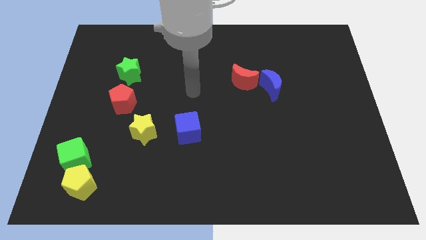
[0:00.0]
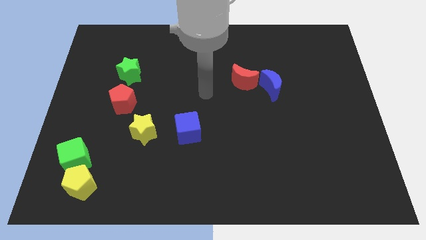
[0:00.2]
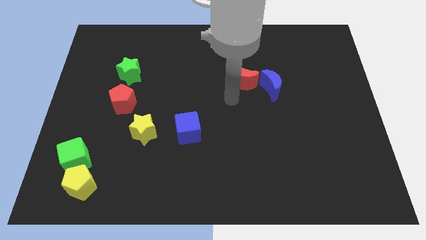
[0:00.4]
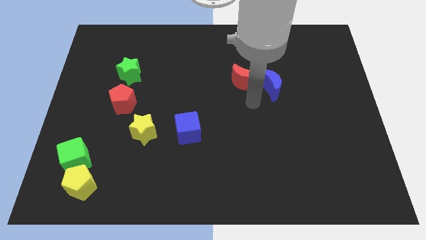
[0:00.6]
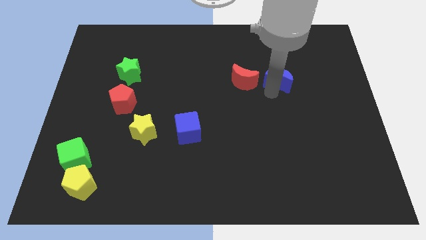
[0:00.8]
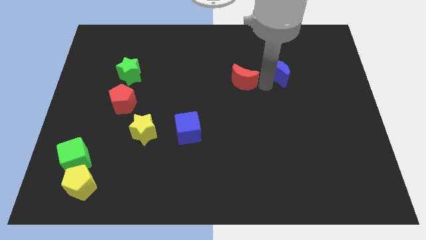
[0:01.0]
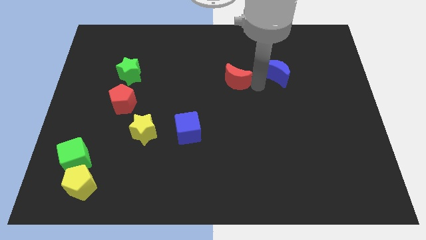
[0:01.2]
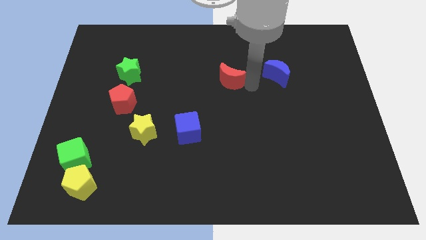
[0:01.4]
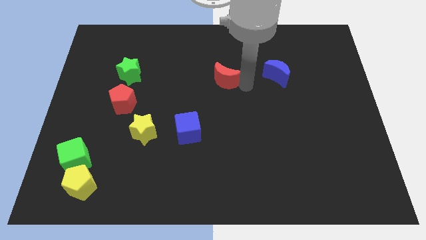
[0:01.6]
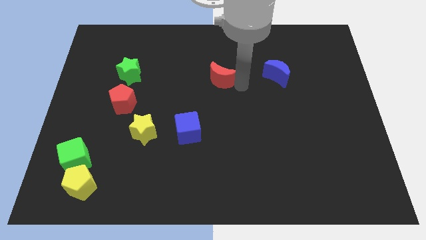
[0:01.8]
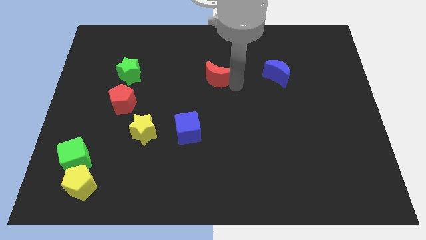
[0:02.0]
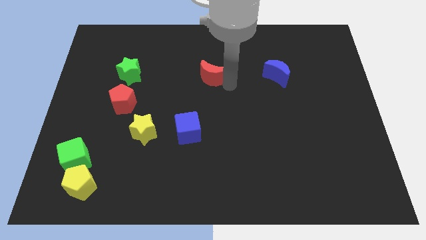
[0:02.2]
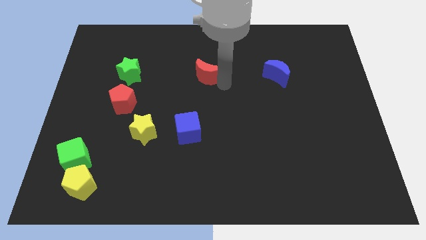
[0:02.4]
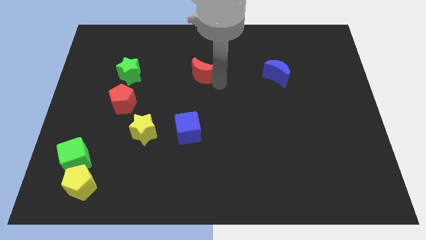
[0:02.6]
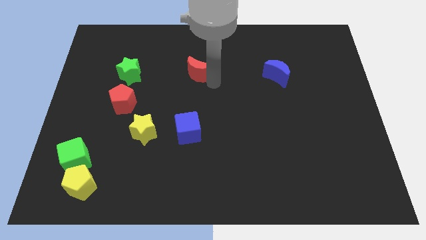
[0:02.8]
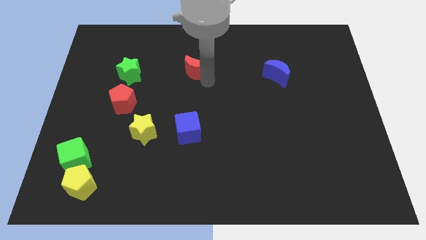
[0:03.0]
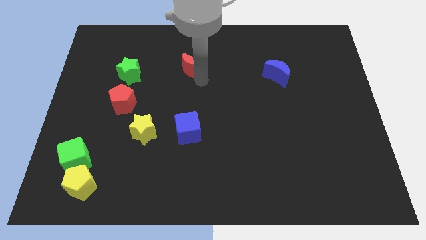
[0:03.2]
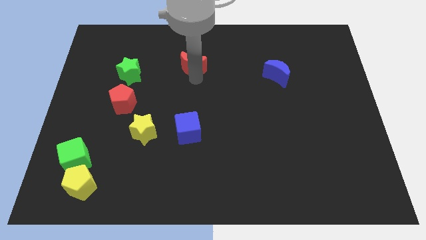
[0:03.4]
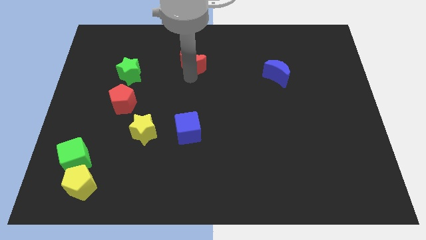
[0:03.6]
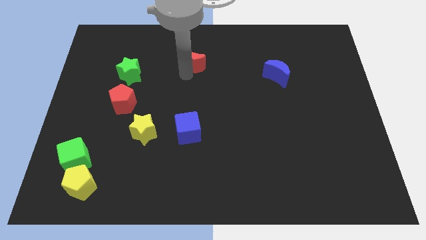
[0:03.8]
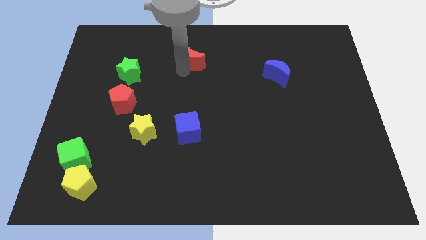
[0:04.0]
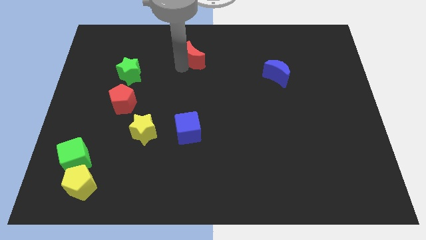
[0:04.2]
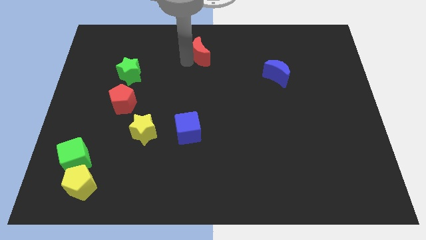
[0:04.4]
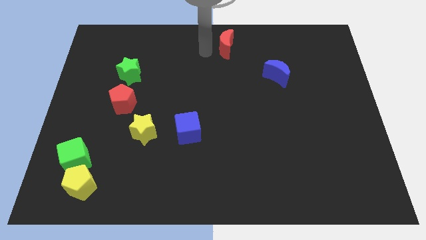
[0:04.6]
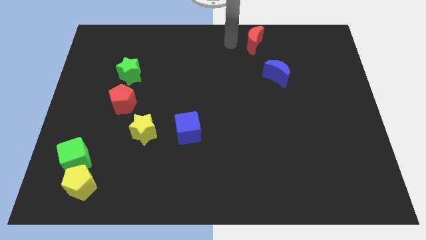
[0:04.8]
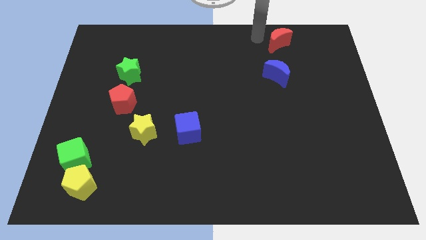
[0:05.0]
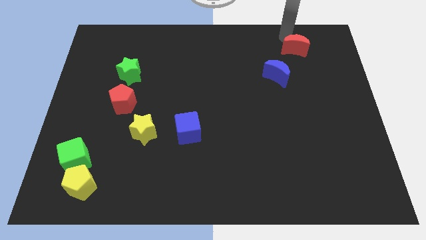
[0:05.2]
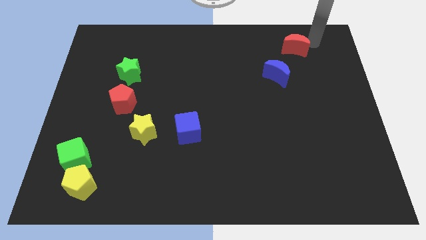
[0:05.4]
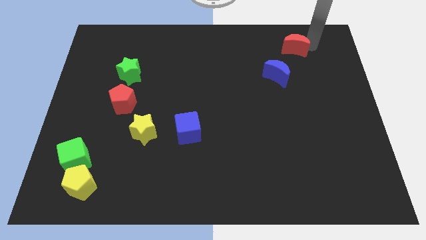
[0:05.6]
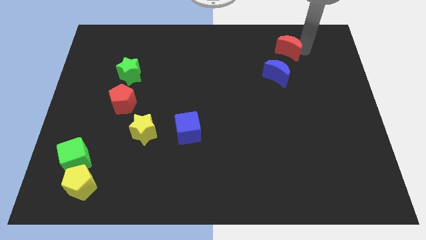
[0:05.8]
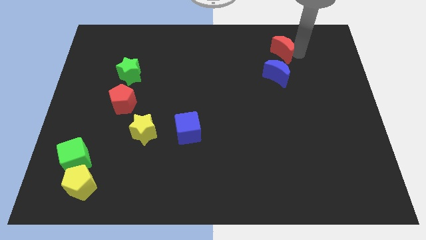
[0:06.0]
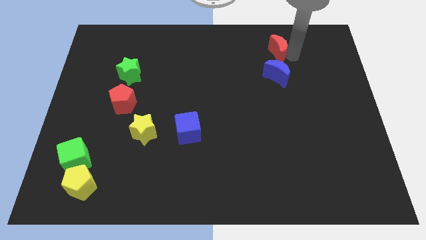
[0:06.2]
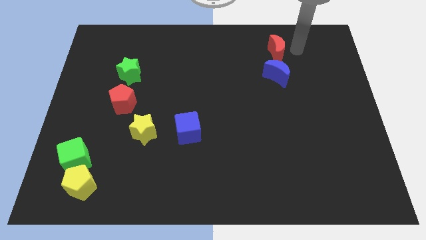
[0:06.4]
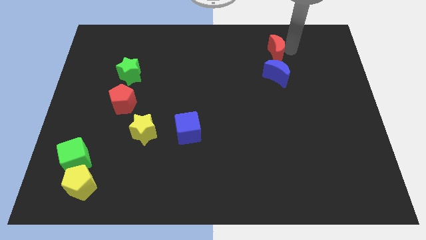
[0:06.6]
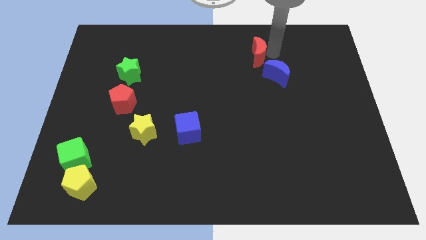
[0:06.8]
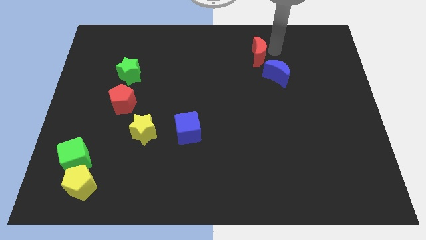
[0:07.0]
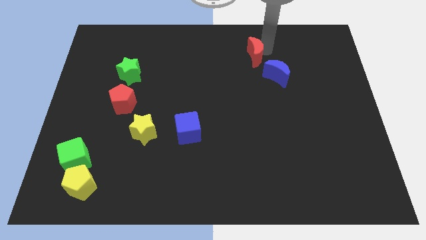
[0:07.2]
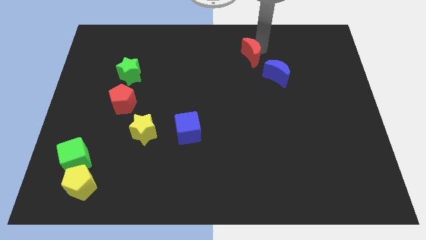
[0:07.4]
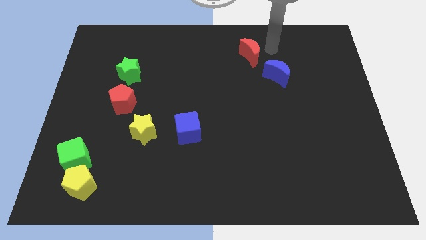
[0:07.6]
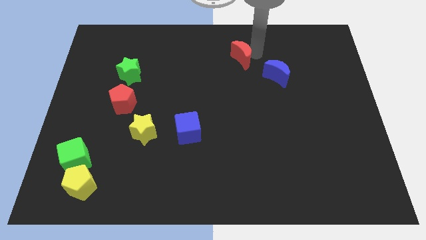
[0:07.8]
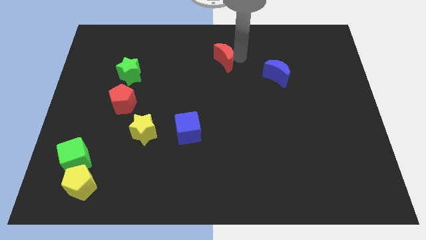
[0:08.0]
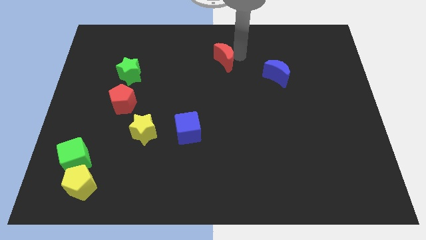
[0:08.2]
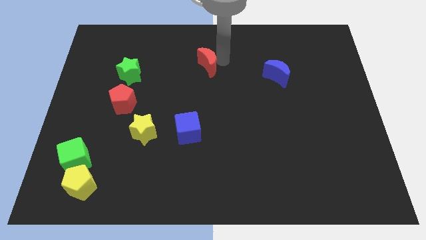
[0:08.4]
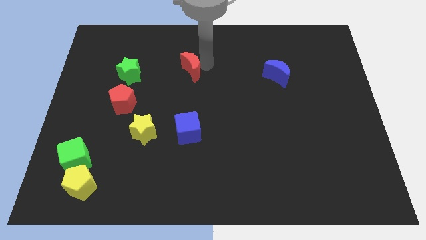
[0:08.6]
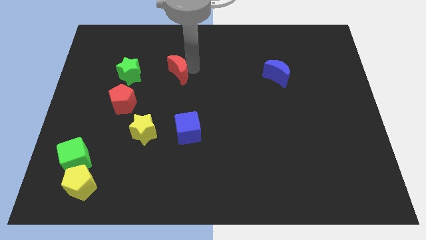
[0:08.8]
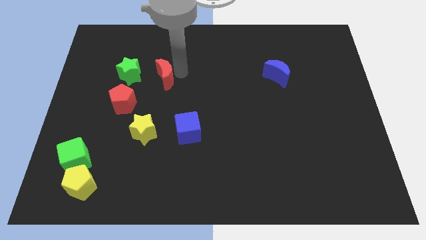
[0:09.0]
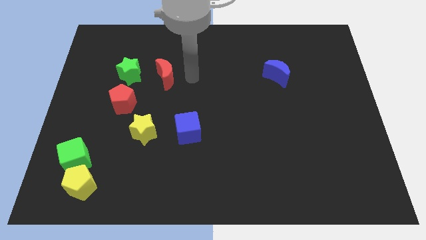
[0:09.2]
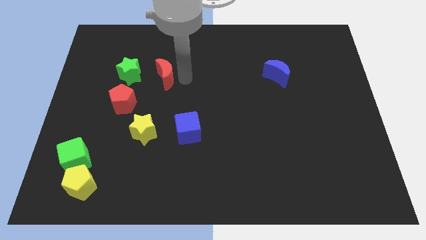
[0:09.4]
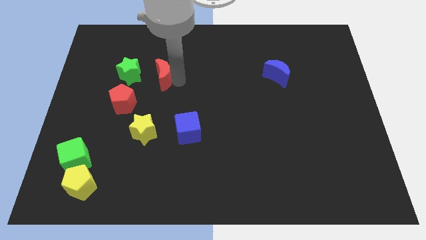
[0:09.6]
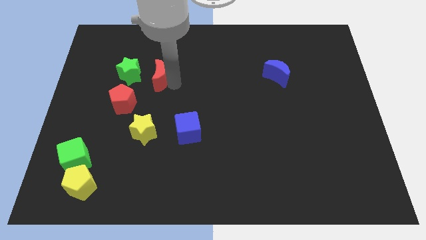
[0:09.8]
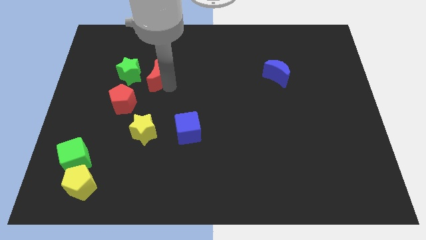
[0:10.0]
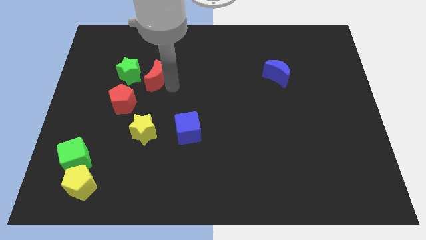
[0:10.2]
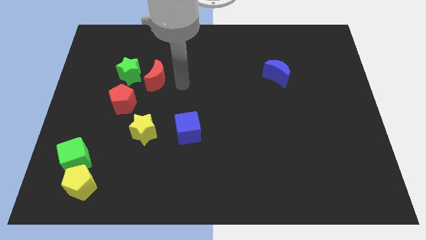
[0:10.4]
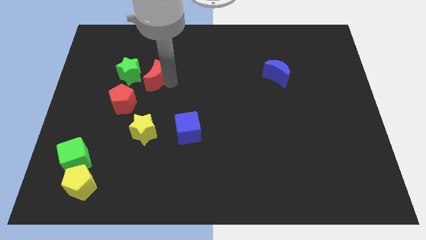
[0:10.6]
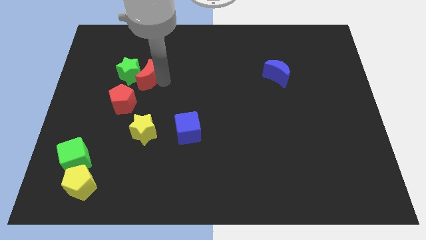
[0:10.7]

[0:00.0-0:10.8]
slide the red moon next to the green star

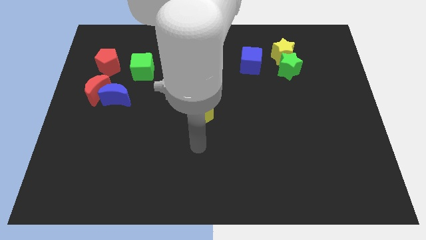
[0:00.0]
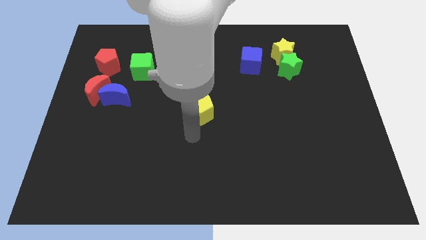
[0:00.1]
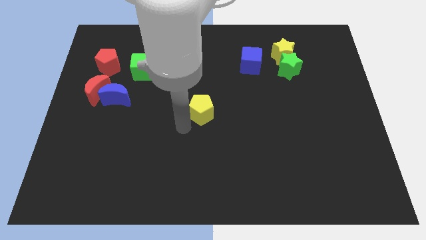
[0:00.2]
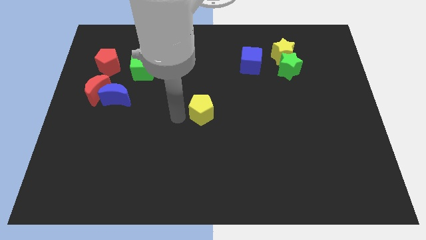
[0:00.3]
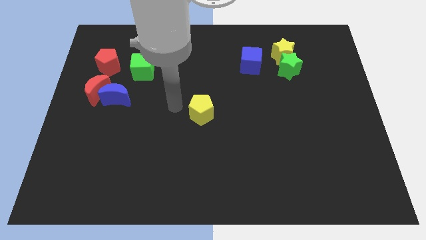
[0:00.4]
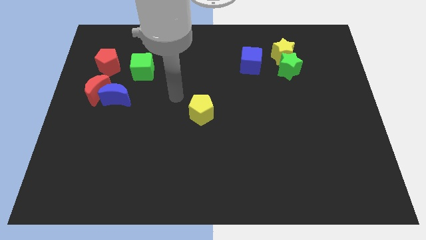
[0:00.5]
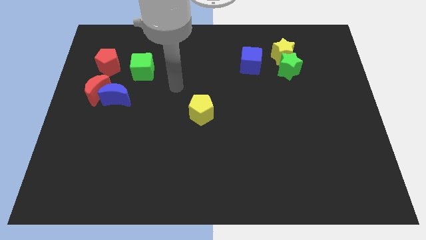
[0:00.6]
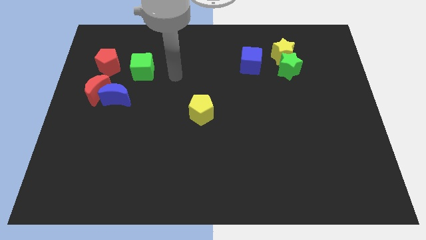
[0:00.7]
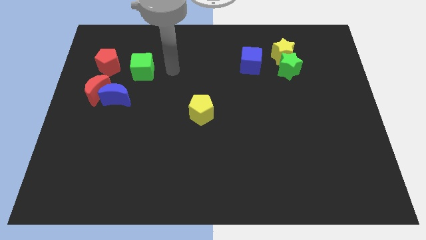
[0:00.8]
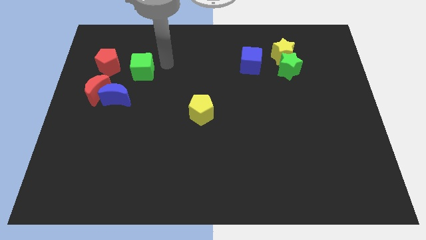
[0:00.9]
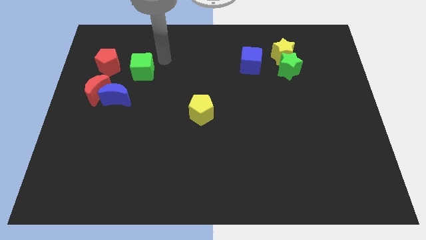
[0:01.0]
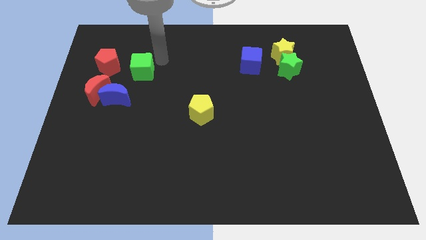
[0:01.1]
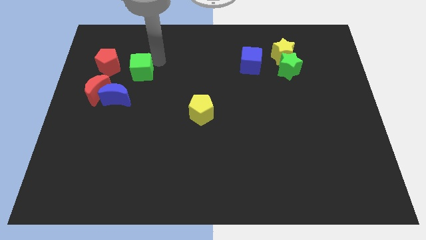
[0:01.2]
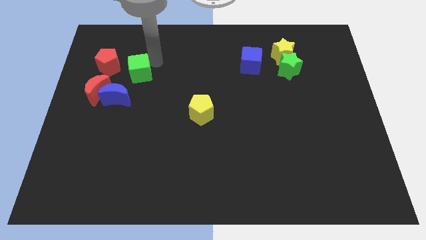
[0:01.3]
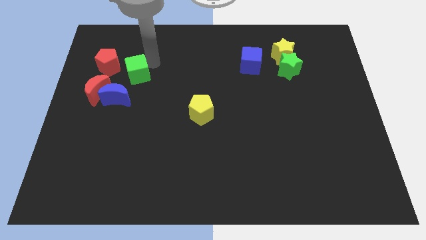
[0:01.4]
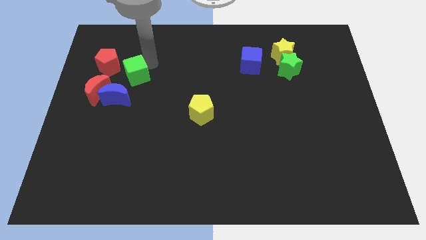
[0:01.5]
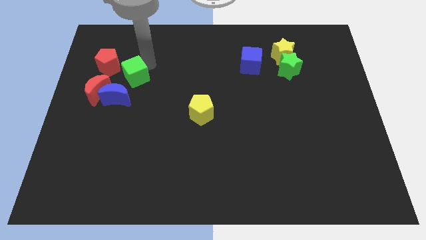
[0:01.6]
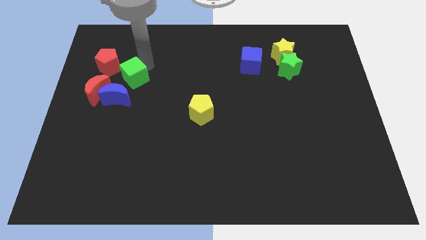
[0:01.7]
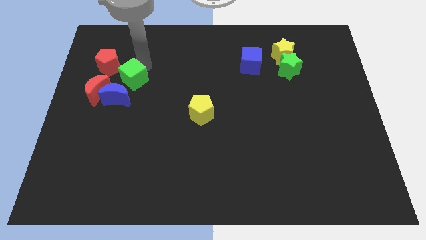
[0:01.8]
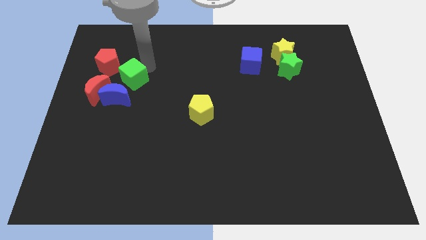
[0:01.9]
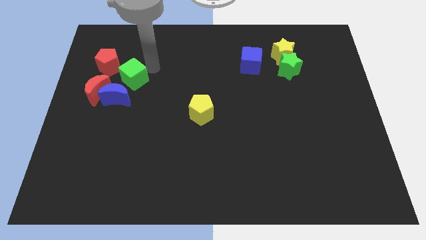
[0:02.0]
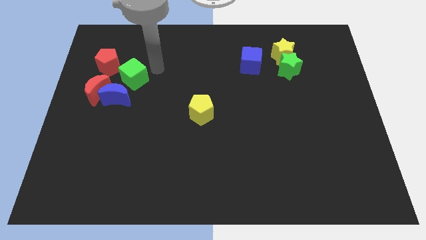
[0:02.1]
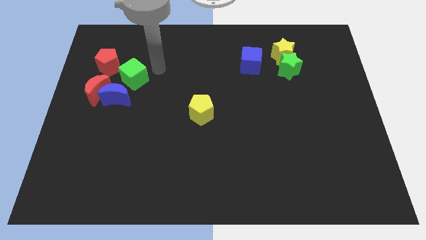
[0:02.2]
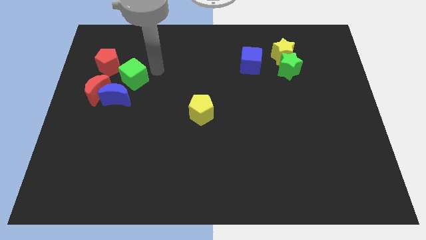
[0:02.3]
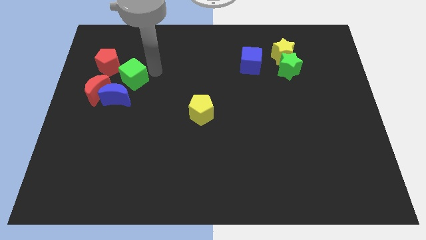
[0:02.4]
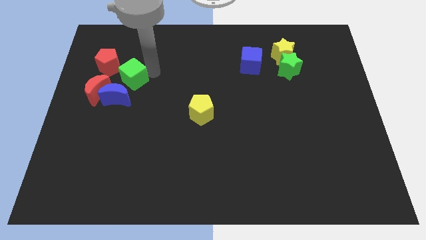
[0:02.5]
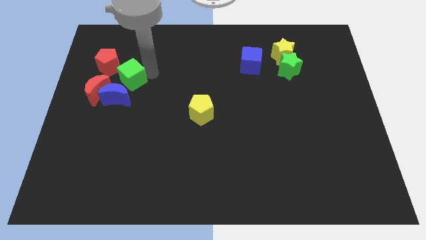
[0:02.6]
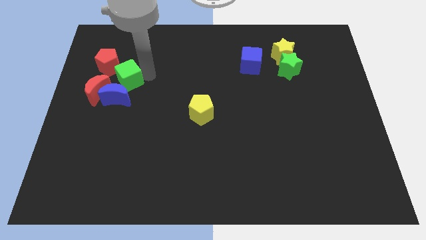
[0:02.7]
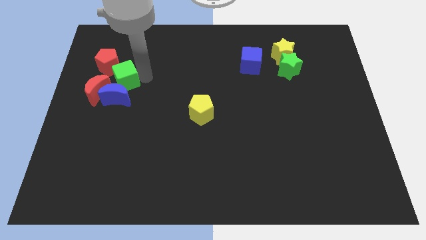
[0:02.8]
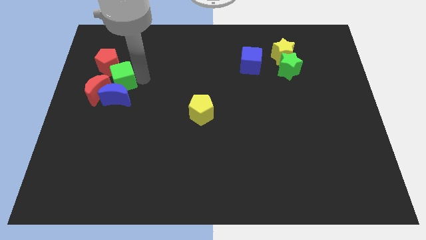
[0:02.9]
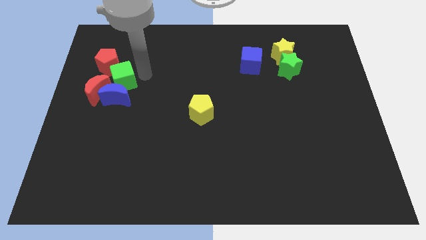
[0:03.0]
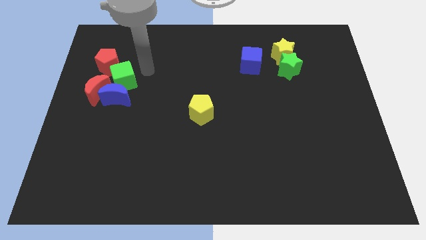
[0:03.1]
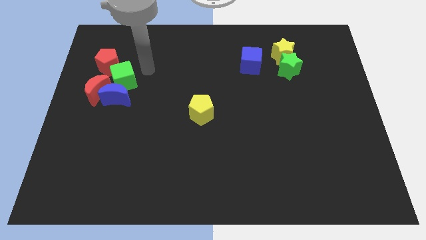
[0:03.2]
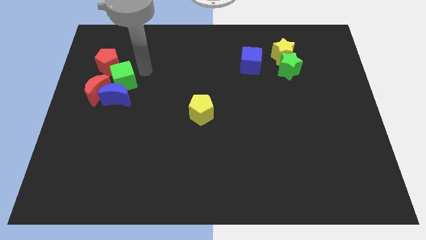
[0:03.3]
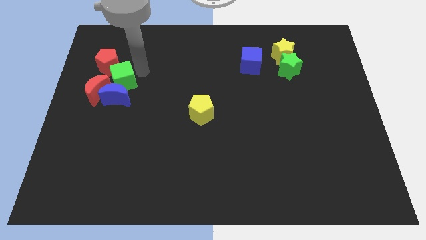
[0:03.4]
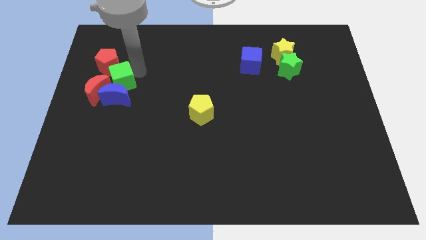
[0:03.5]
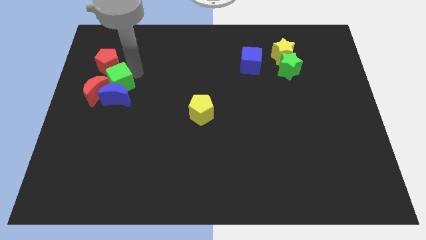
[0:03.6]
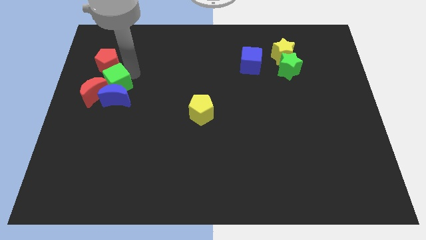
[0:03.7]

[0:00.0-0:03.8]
push the green cube close to the red moon
